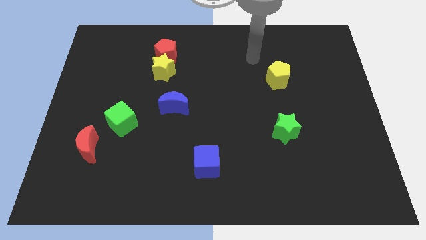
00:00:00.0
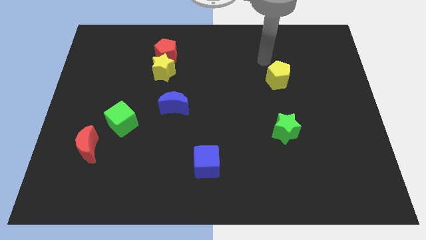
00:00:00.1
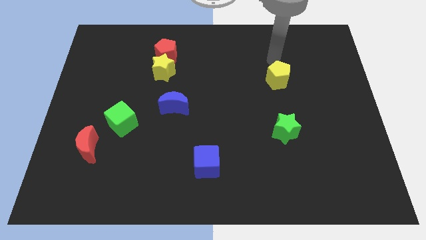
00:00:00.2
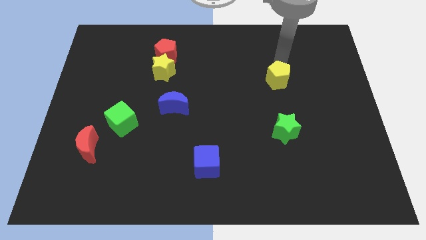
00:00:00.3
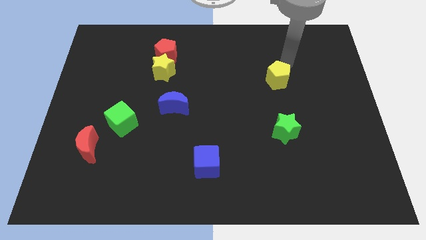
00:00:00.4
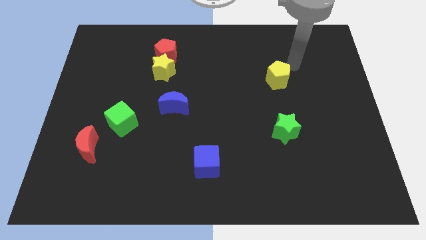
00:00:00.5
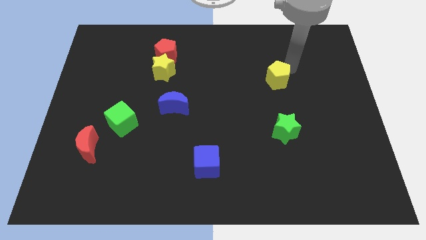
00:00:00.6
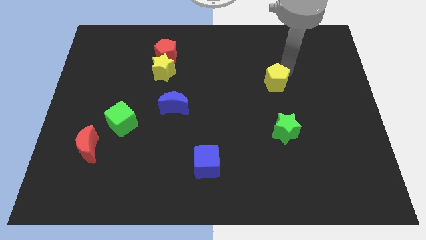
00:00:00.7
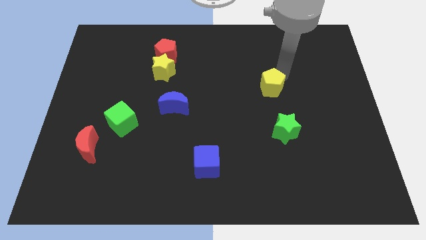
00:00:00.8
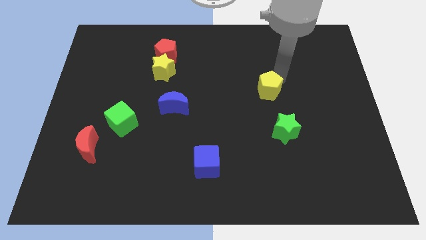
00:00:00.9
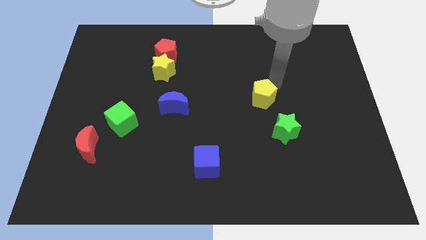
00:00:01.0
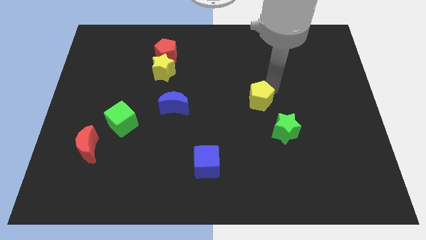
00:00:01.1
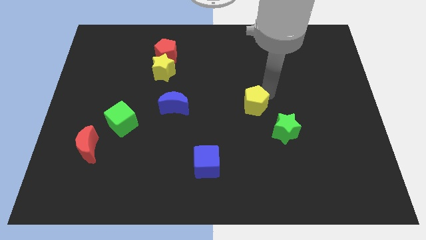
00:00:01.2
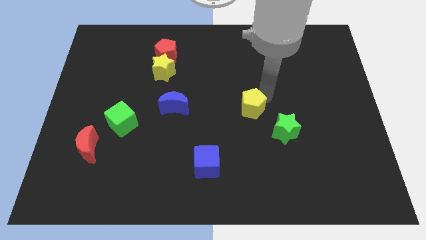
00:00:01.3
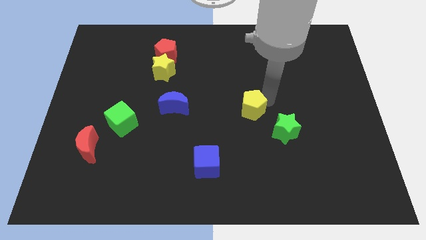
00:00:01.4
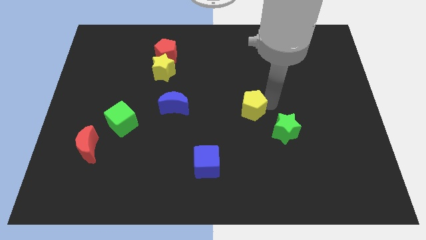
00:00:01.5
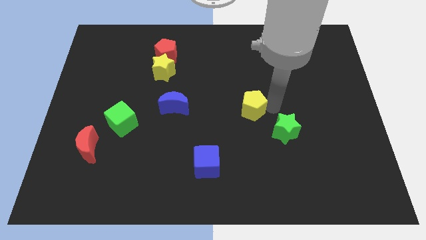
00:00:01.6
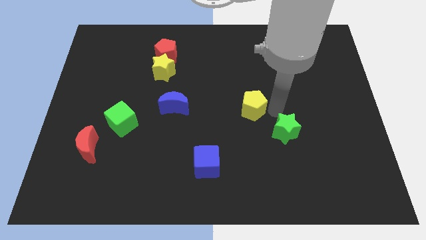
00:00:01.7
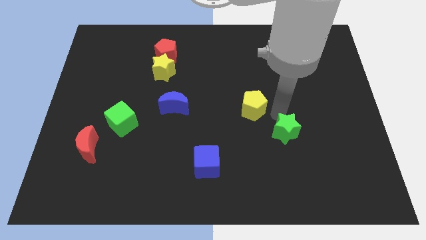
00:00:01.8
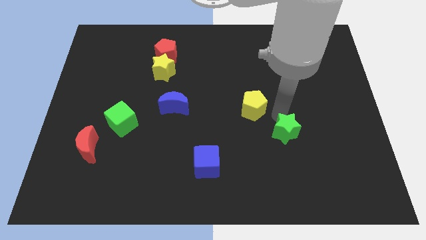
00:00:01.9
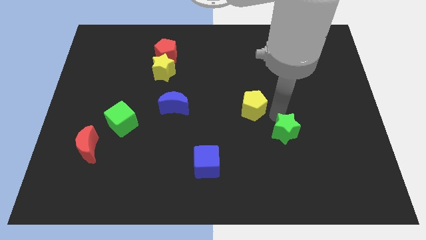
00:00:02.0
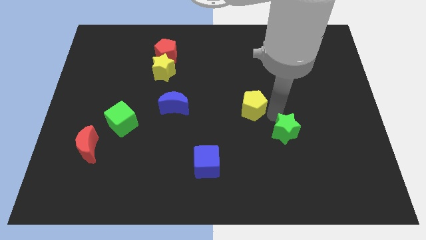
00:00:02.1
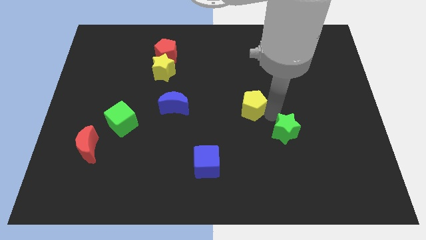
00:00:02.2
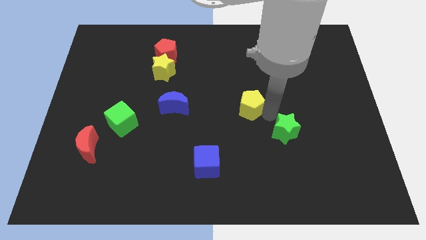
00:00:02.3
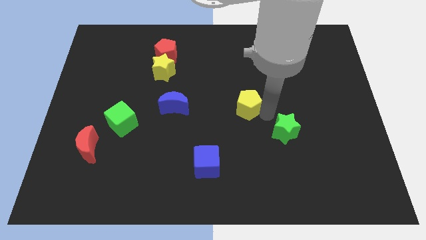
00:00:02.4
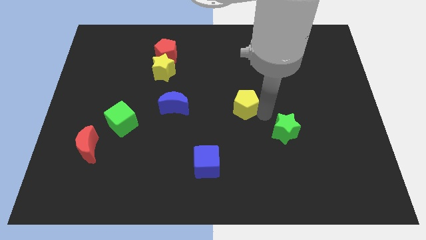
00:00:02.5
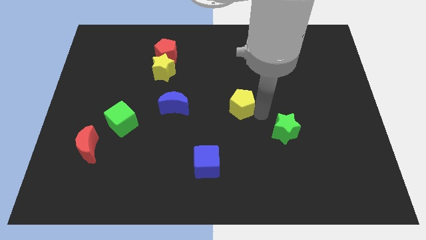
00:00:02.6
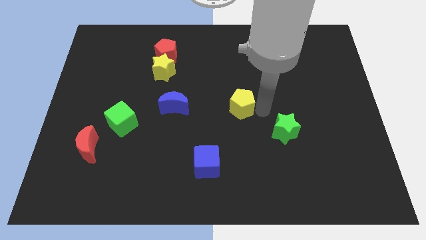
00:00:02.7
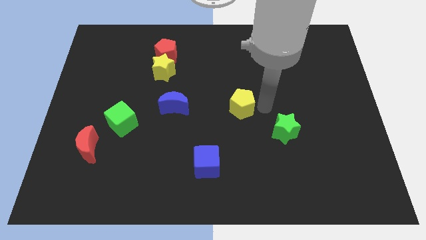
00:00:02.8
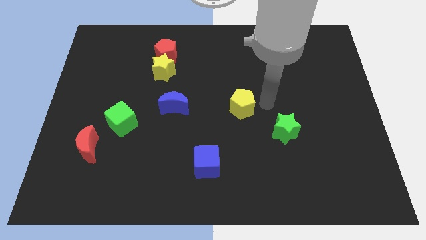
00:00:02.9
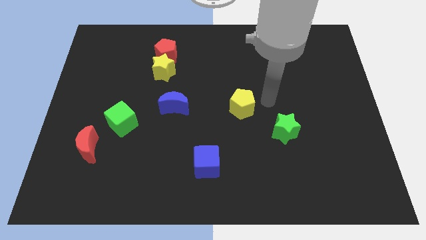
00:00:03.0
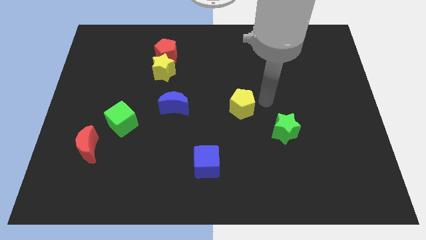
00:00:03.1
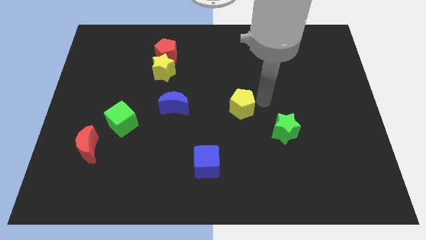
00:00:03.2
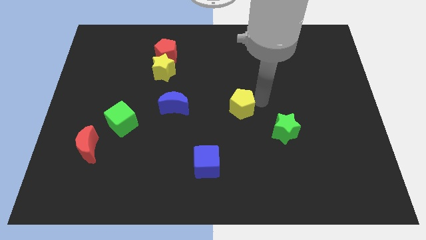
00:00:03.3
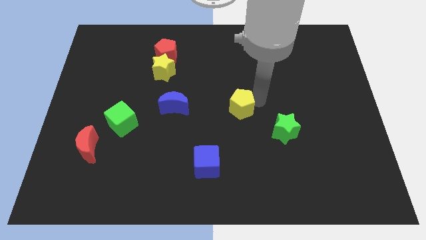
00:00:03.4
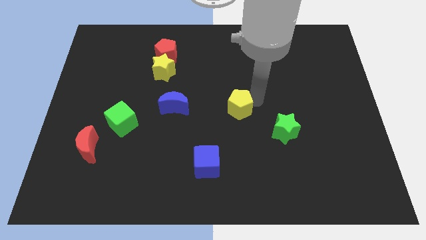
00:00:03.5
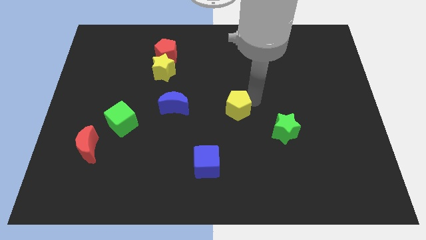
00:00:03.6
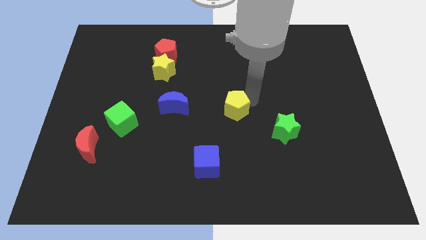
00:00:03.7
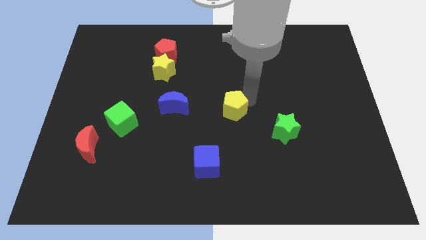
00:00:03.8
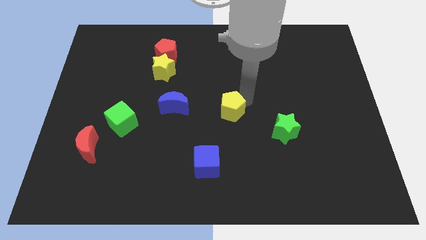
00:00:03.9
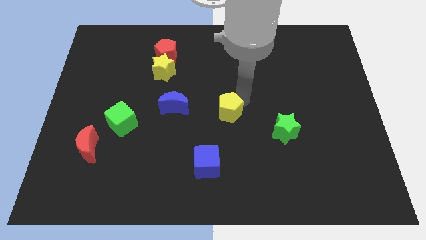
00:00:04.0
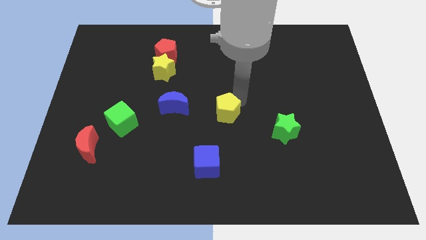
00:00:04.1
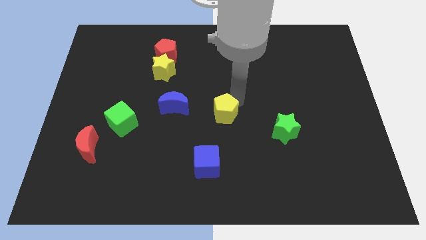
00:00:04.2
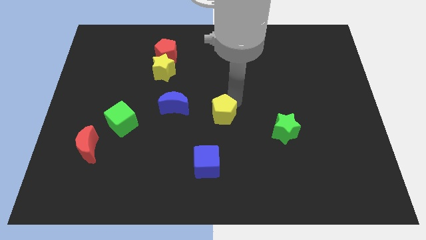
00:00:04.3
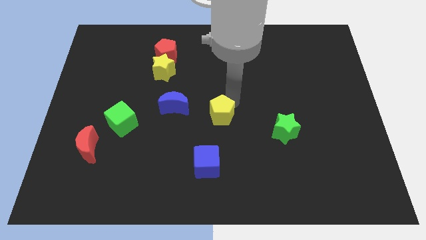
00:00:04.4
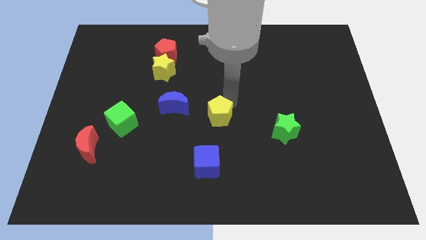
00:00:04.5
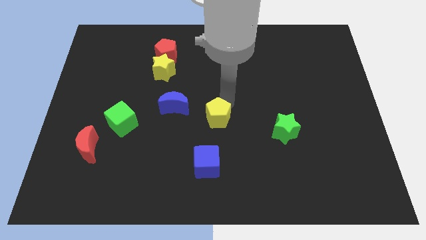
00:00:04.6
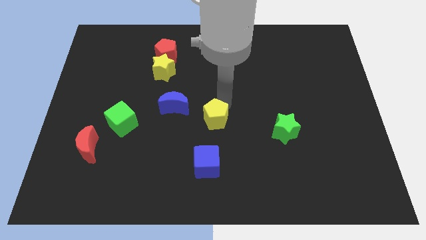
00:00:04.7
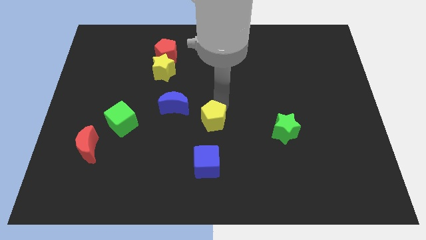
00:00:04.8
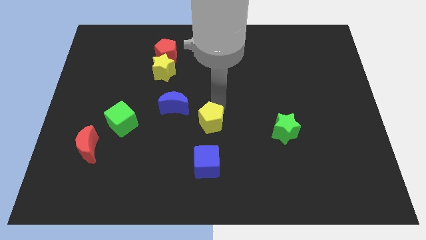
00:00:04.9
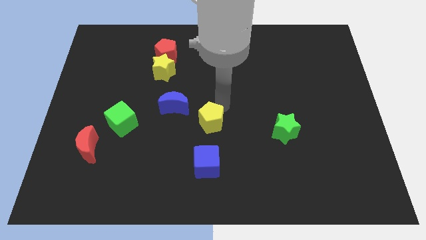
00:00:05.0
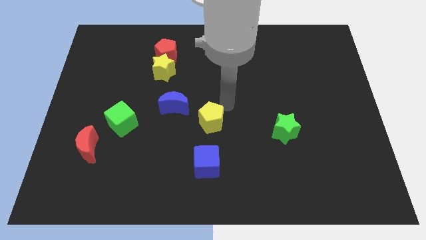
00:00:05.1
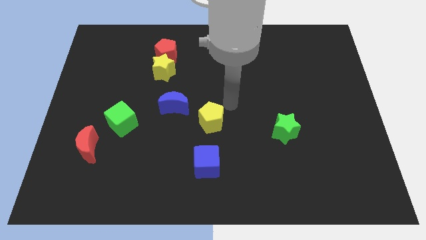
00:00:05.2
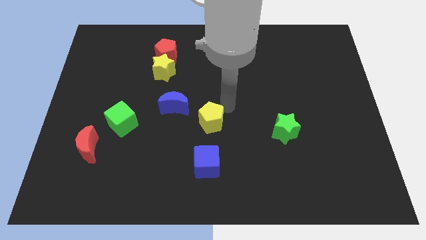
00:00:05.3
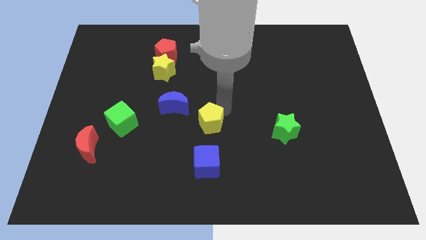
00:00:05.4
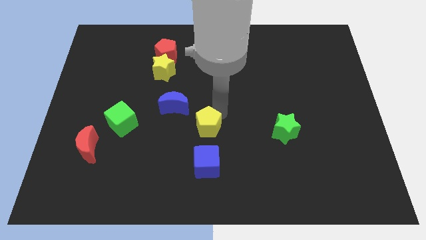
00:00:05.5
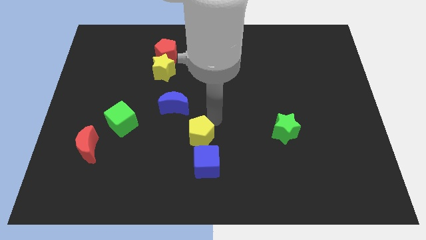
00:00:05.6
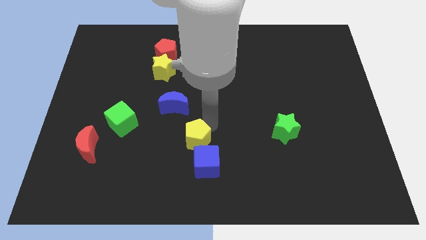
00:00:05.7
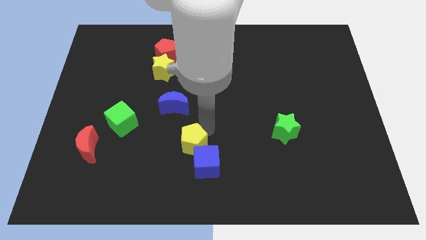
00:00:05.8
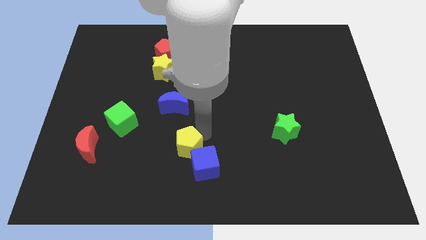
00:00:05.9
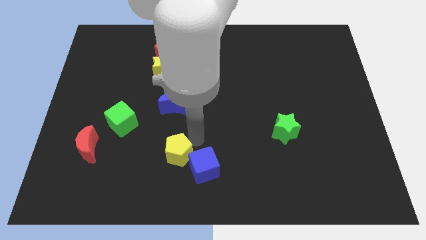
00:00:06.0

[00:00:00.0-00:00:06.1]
push the yellow pentagon left of the blue cube

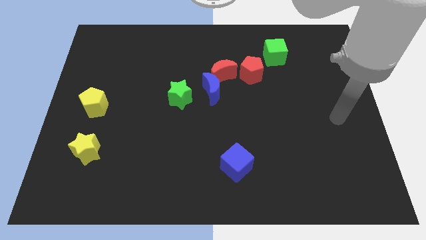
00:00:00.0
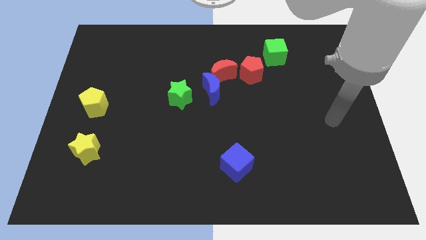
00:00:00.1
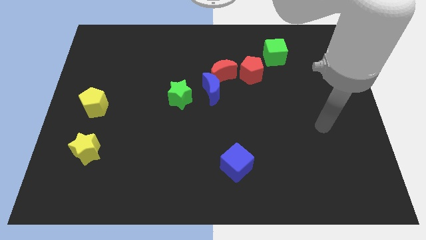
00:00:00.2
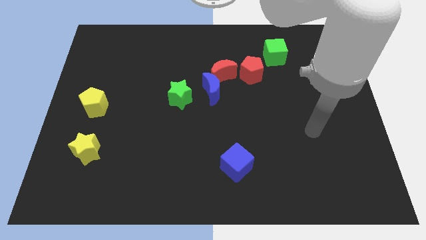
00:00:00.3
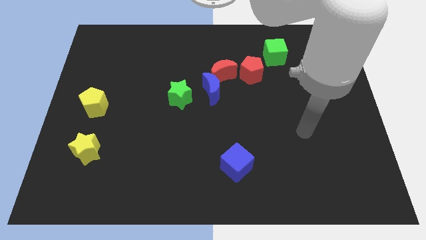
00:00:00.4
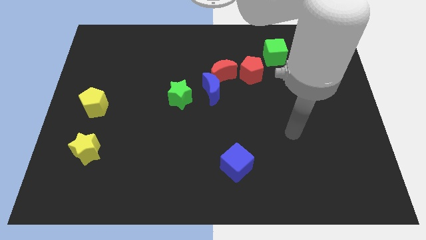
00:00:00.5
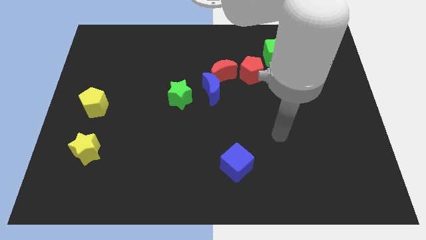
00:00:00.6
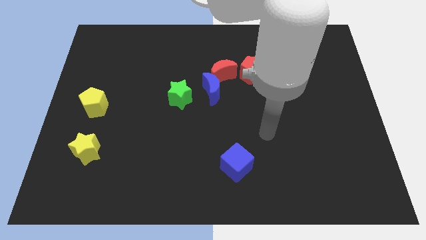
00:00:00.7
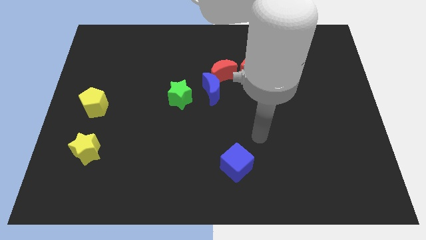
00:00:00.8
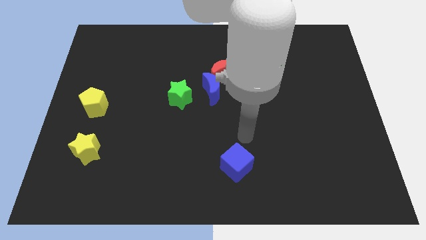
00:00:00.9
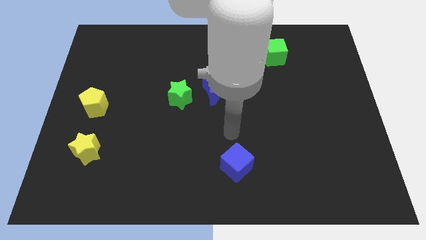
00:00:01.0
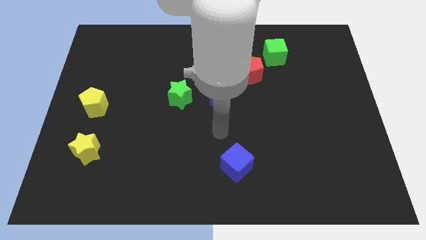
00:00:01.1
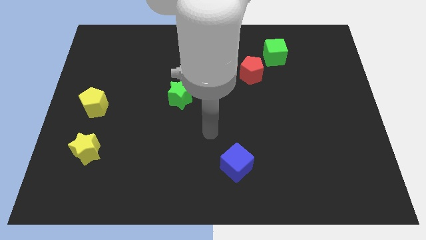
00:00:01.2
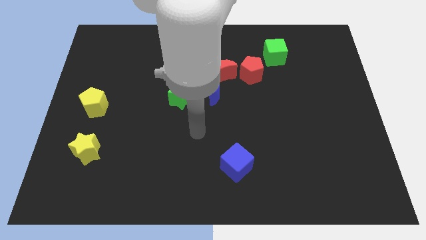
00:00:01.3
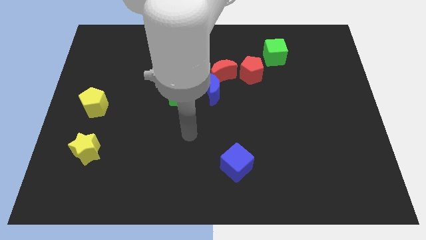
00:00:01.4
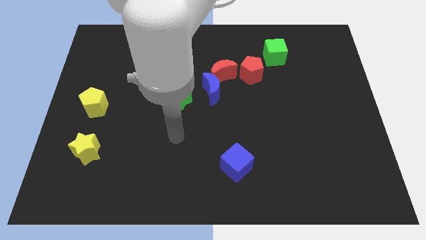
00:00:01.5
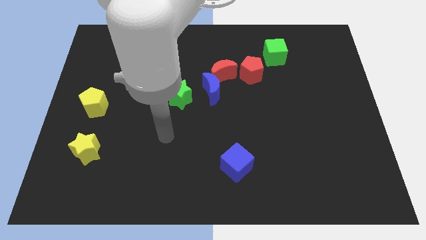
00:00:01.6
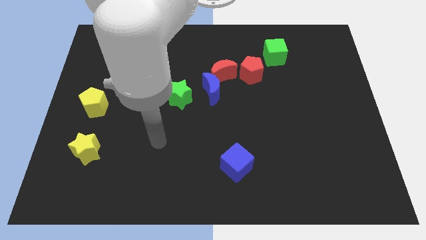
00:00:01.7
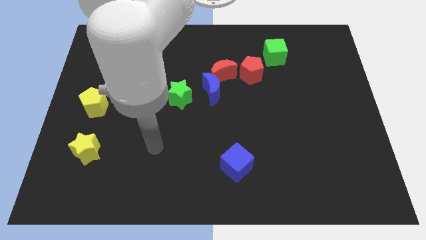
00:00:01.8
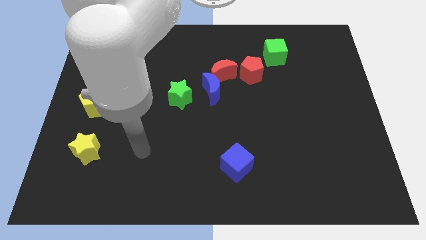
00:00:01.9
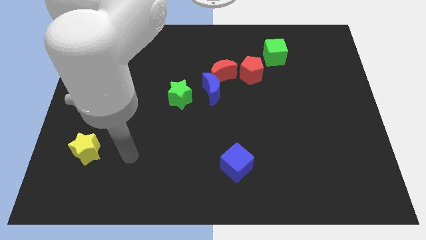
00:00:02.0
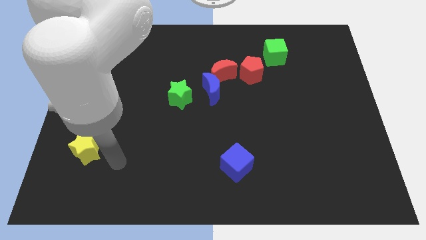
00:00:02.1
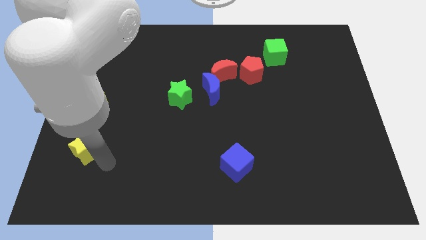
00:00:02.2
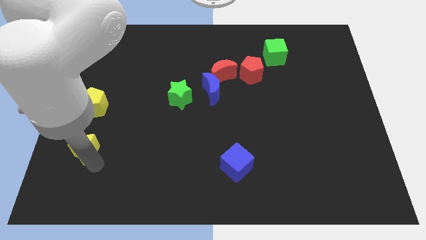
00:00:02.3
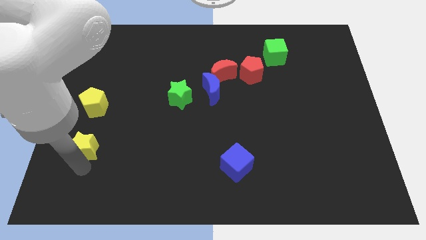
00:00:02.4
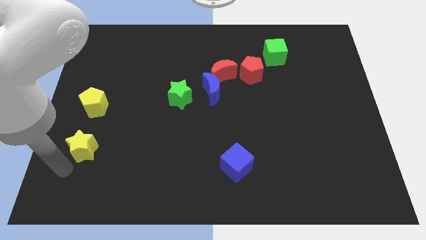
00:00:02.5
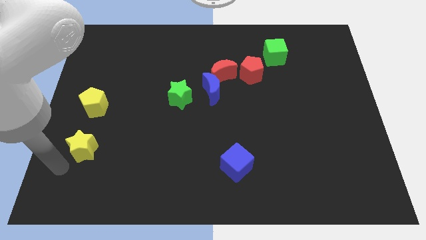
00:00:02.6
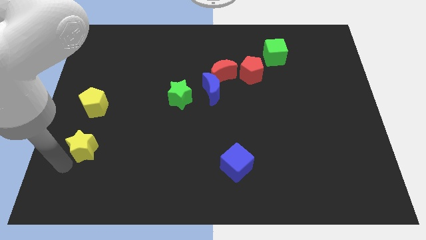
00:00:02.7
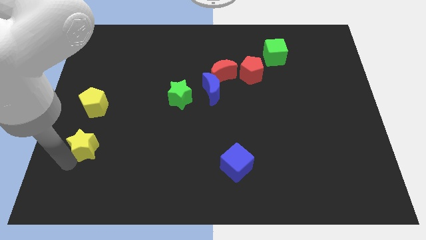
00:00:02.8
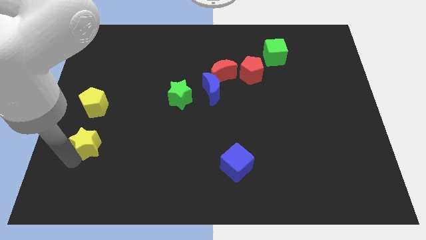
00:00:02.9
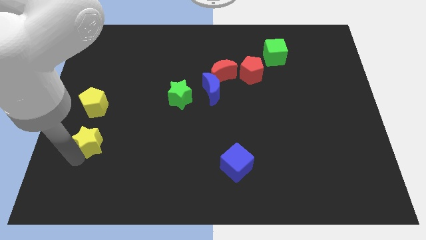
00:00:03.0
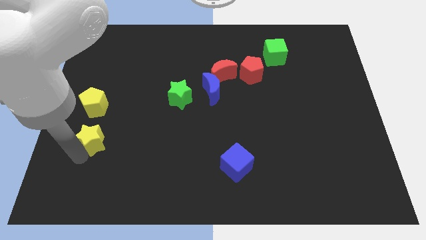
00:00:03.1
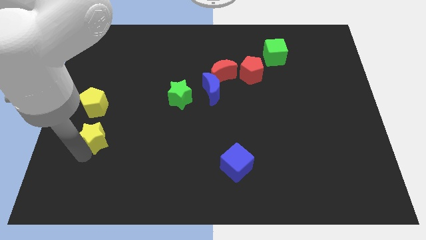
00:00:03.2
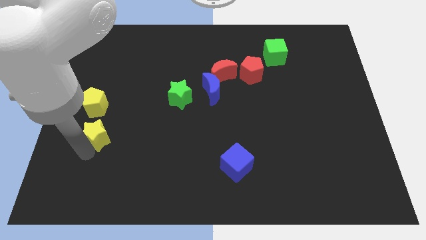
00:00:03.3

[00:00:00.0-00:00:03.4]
move the yellow star to the bottom right side of the yellow pentagon
